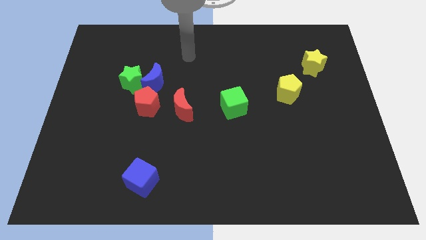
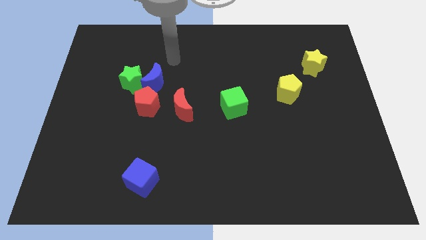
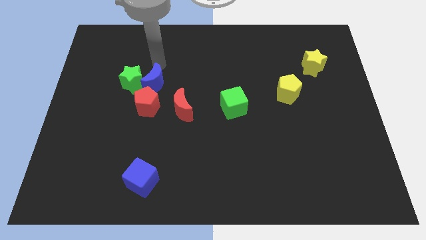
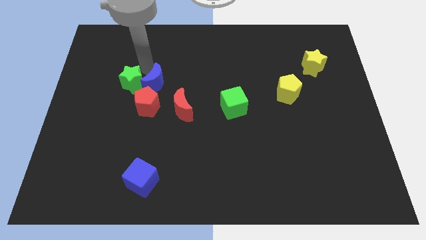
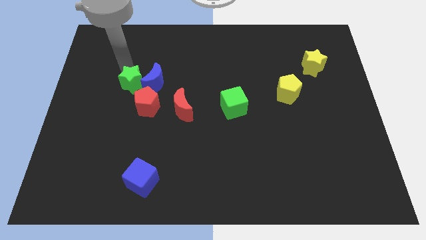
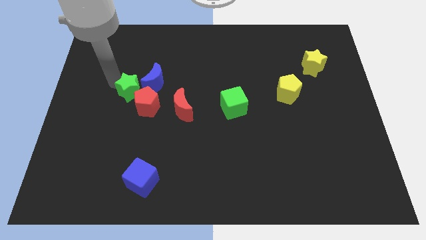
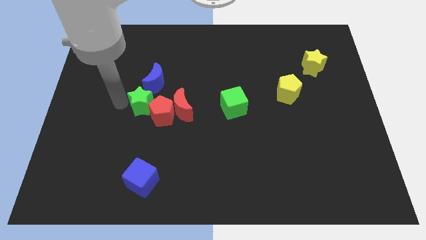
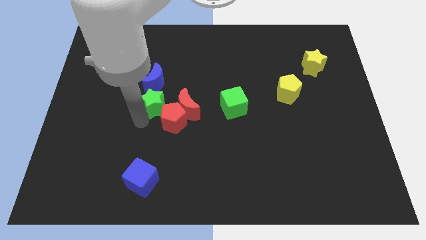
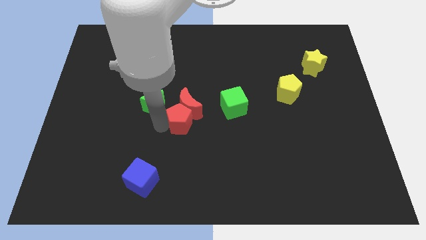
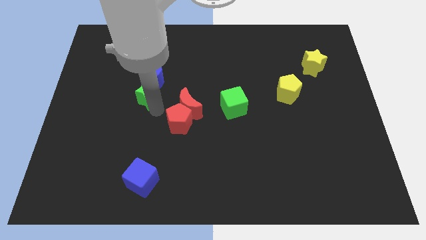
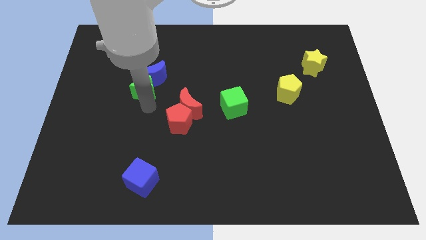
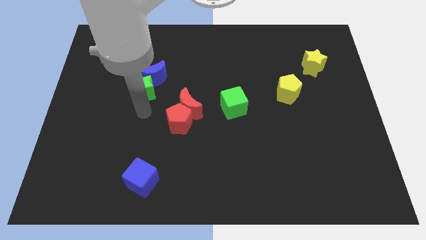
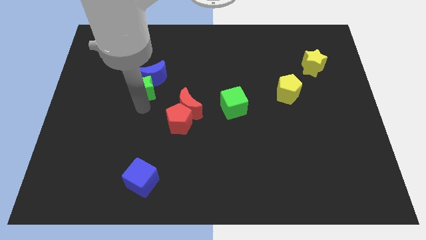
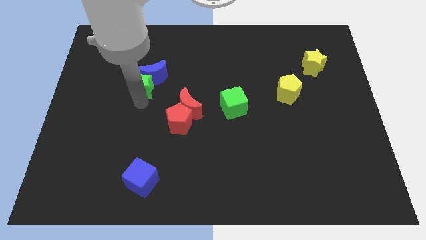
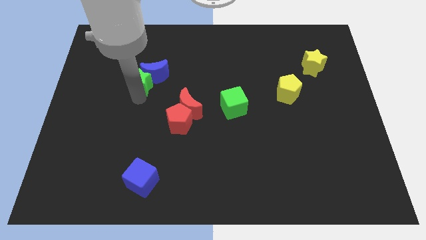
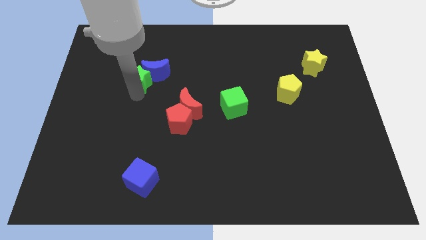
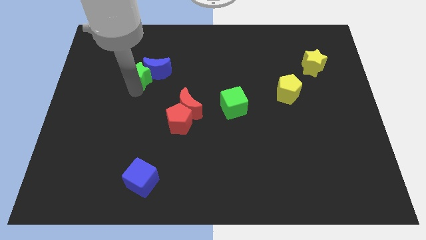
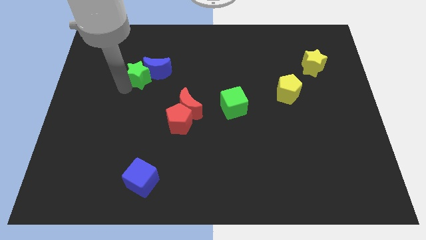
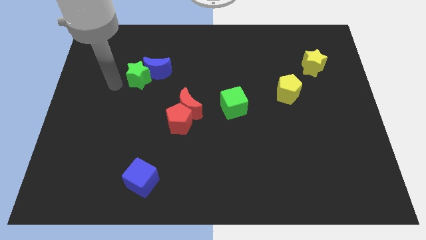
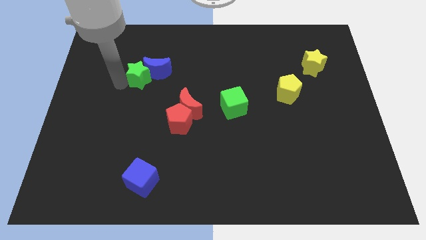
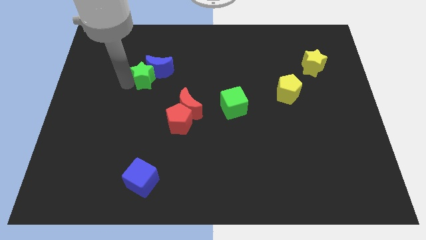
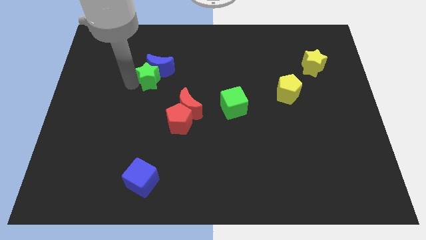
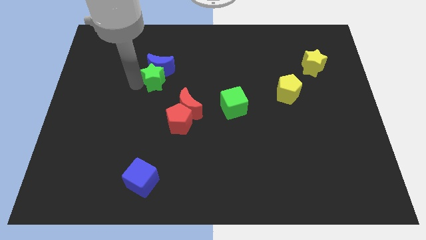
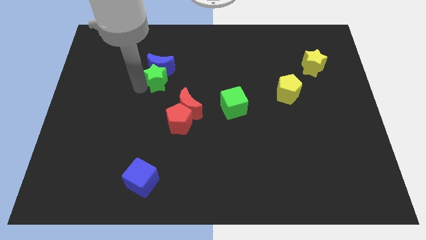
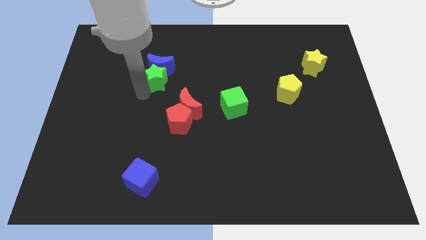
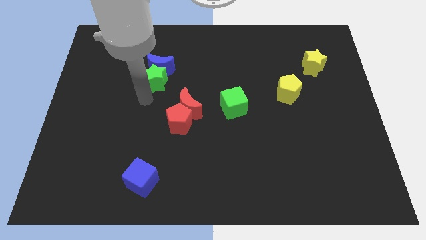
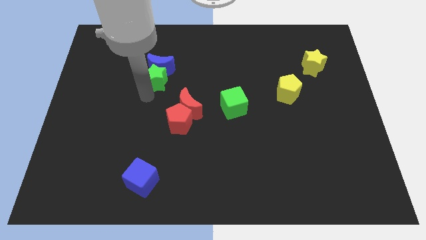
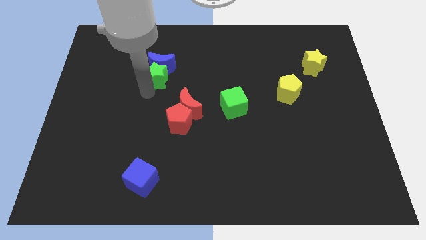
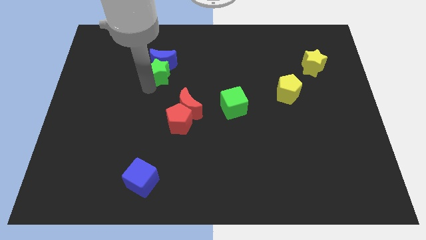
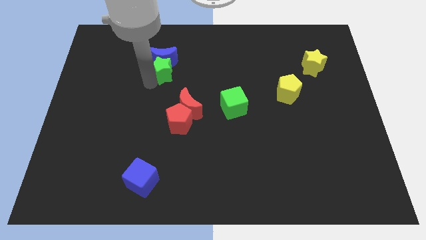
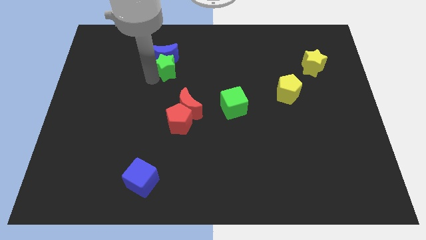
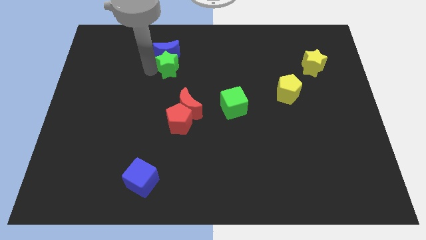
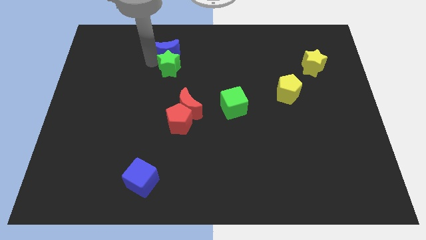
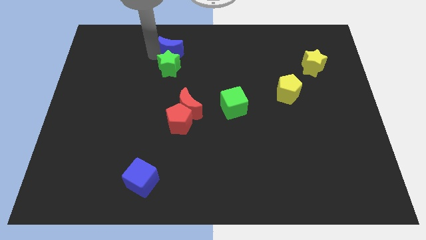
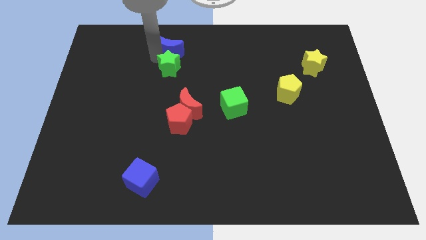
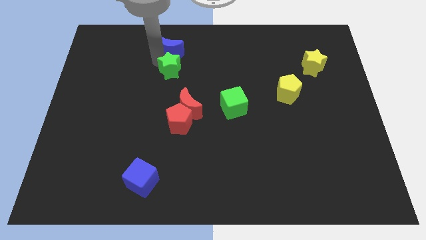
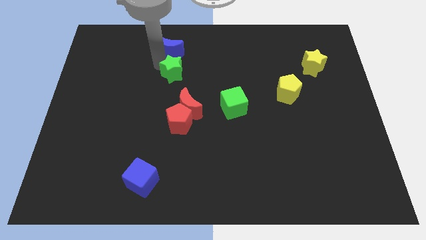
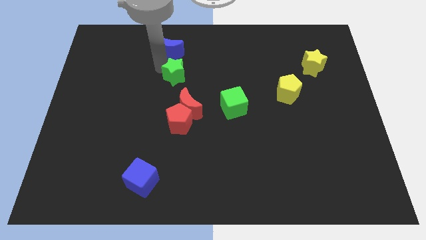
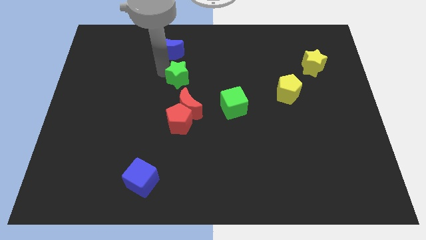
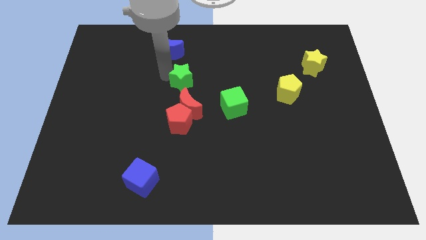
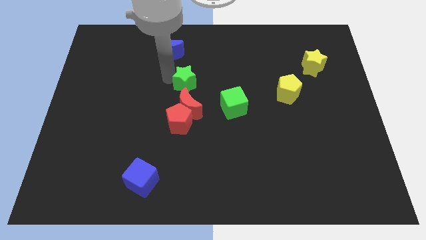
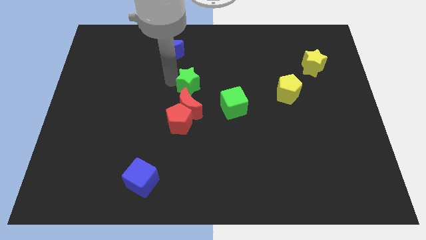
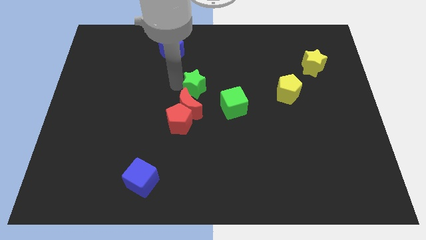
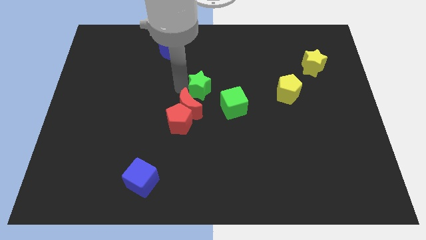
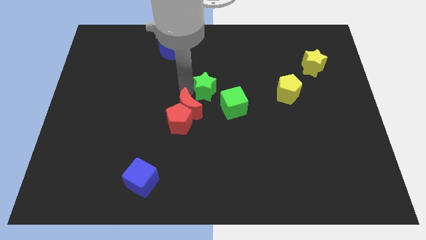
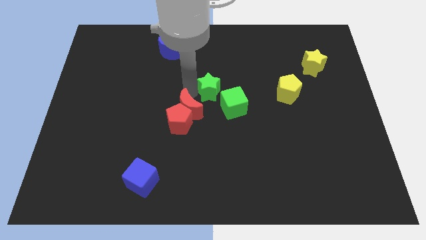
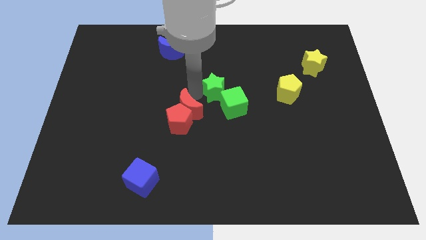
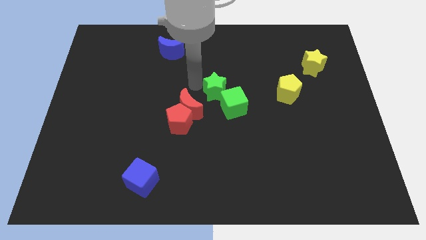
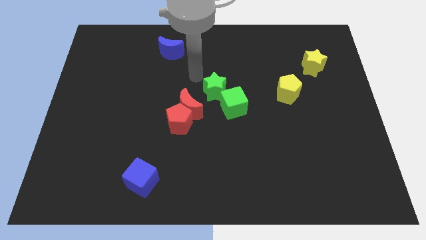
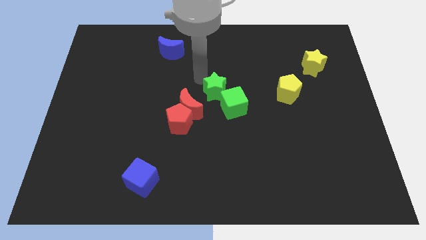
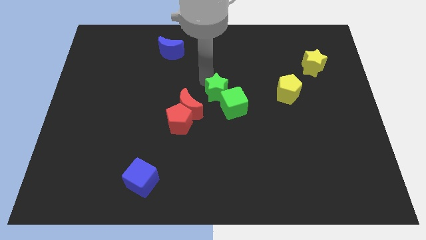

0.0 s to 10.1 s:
put the green star next to the green cube

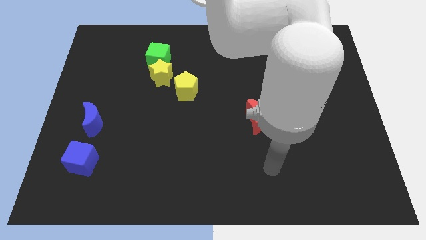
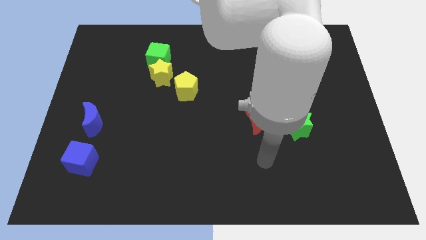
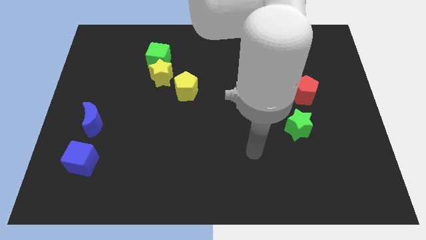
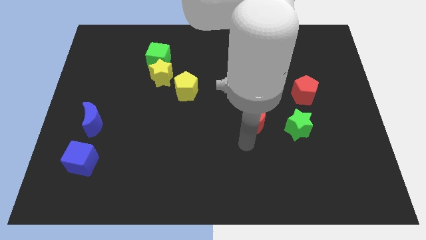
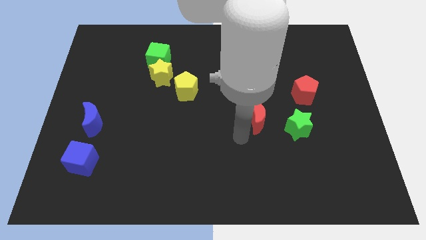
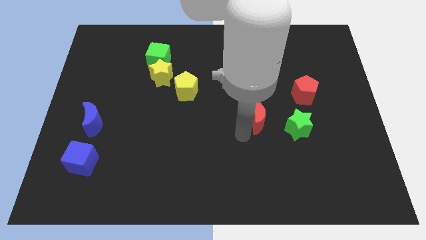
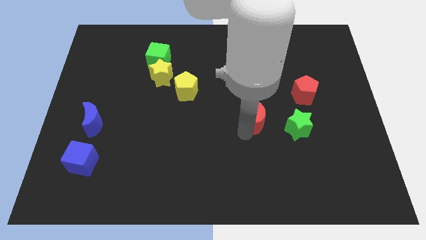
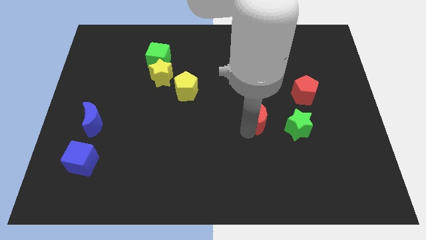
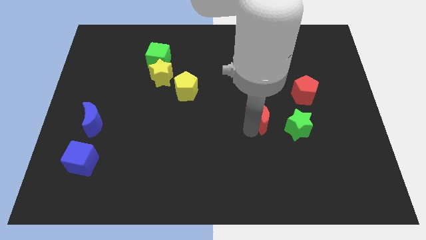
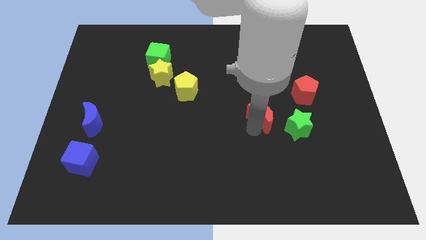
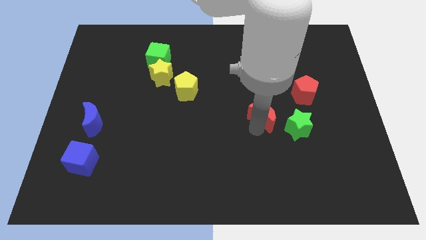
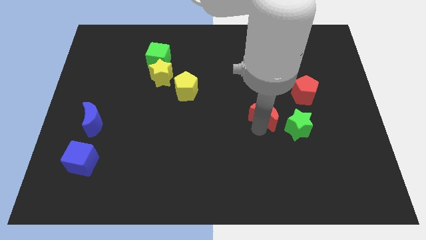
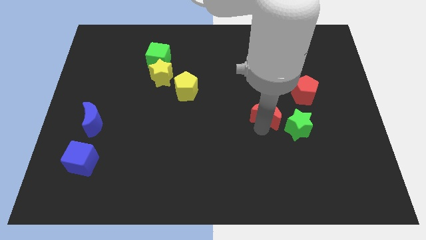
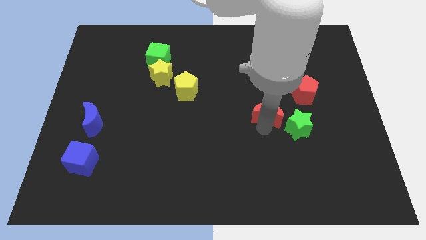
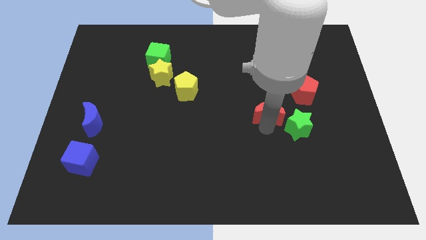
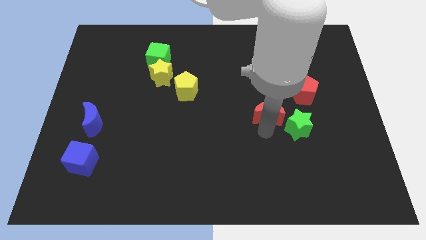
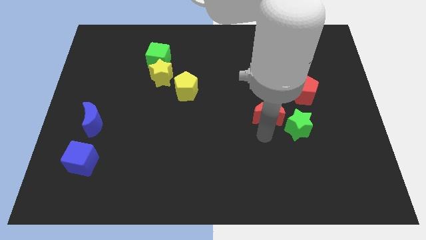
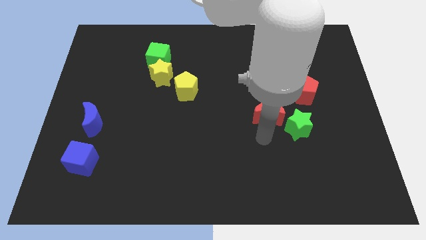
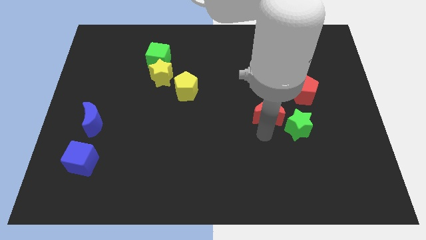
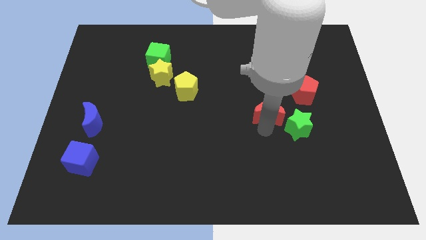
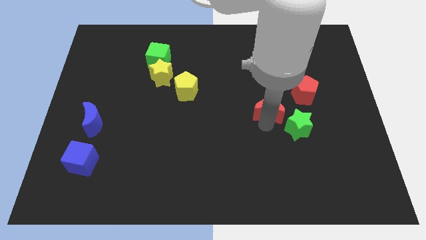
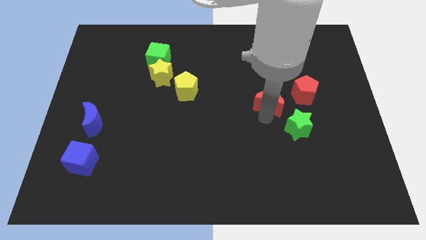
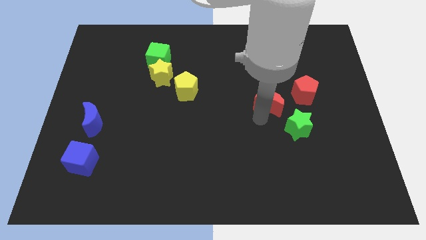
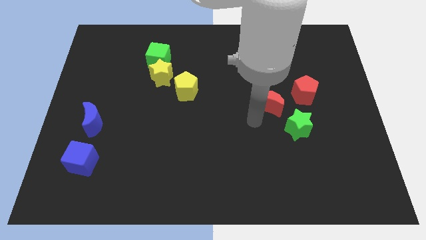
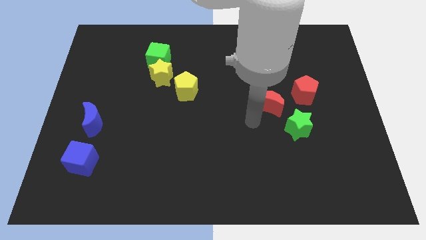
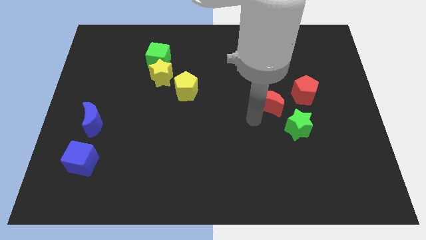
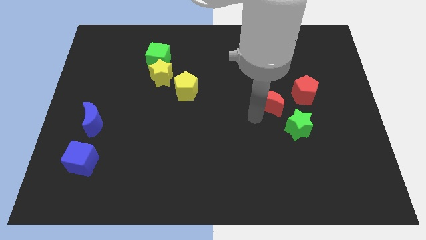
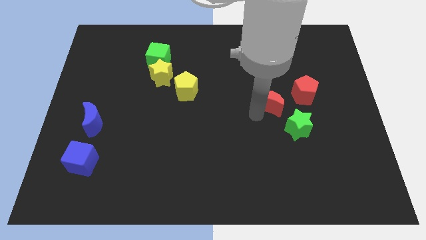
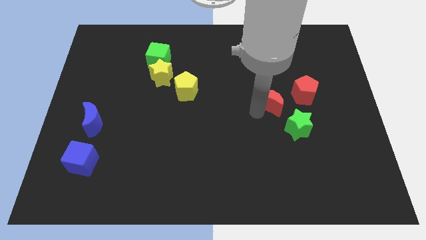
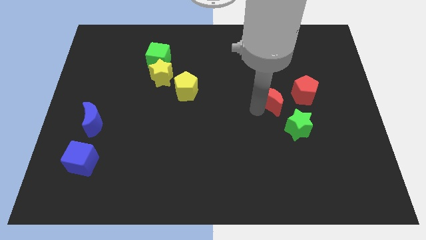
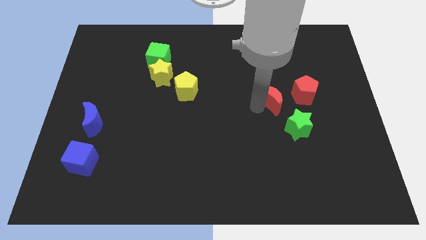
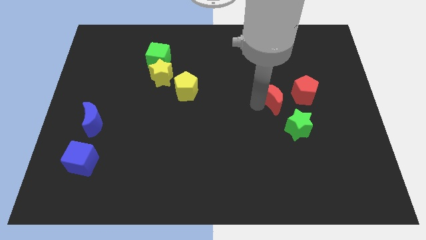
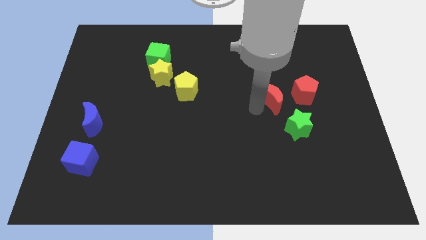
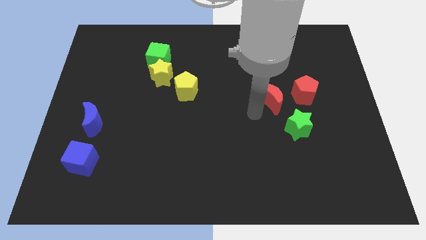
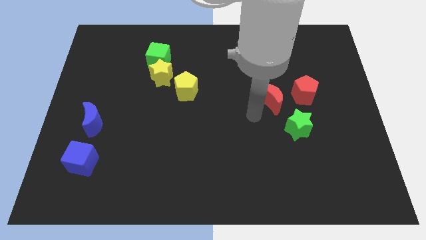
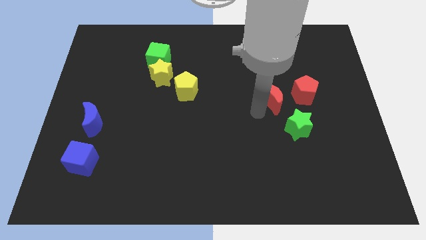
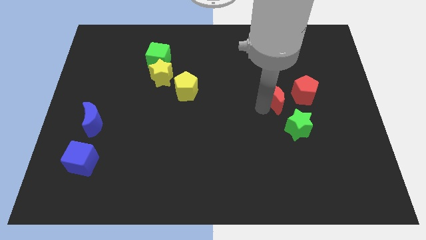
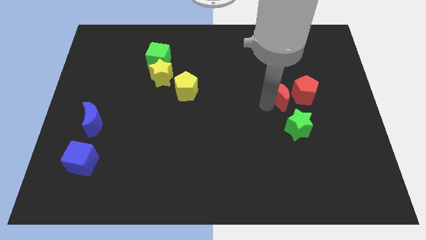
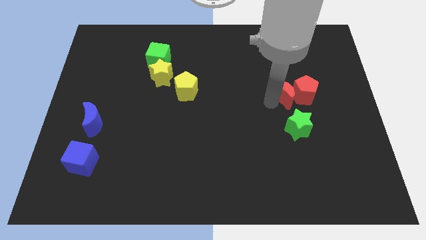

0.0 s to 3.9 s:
slide the red moon close to the red pentagon
